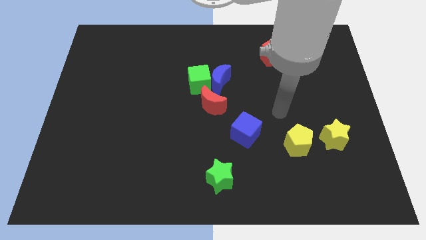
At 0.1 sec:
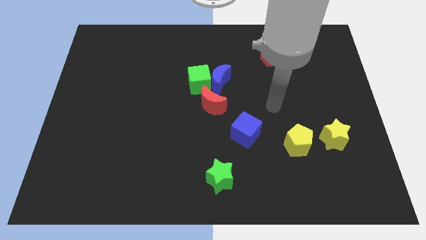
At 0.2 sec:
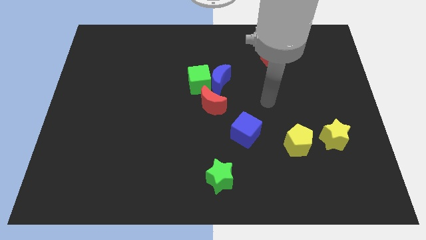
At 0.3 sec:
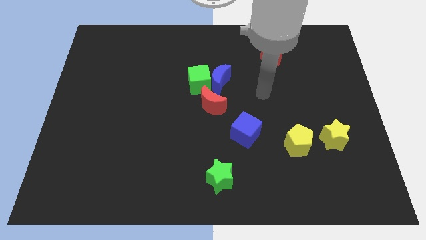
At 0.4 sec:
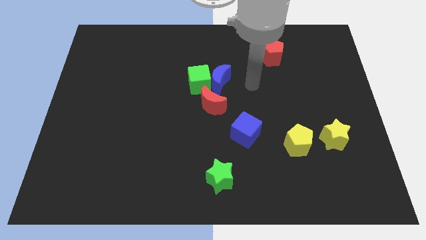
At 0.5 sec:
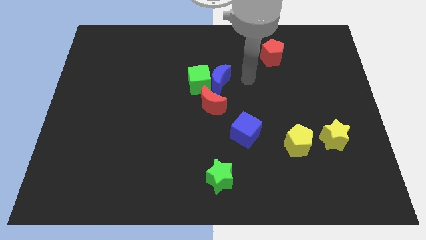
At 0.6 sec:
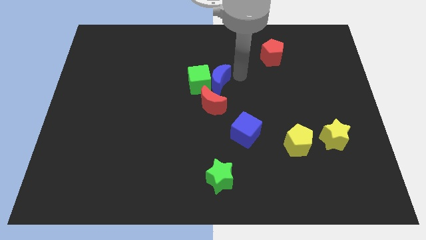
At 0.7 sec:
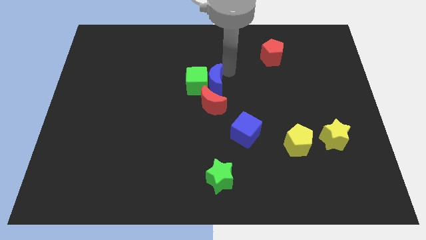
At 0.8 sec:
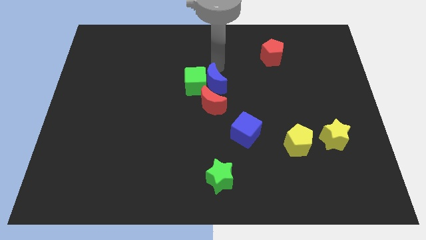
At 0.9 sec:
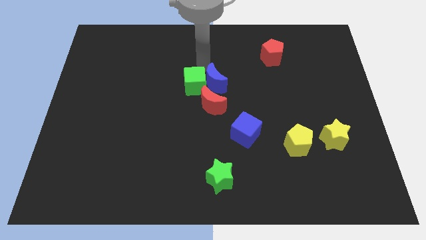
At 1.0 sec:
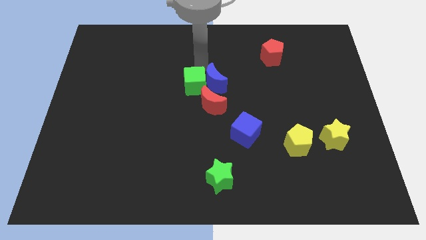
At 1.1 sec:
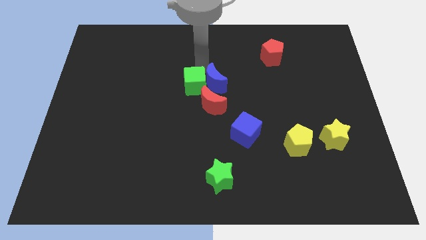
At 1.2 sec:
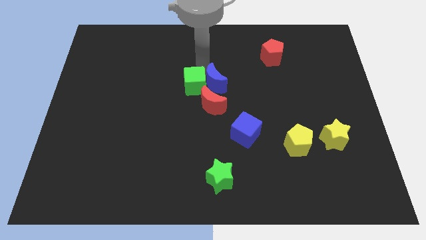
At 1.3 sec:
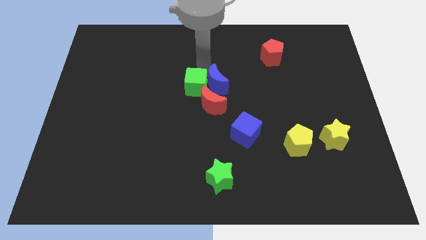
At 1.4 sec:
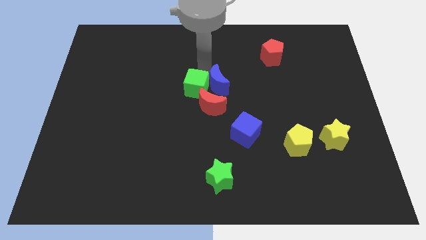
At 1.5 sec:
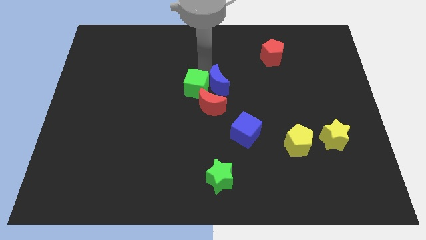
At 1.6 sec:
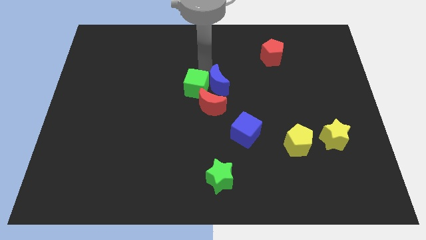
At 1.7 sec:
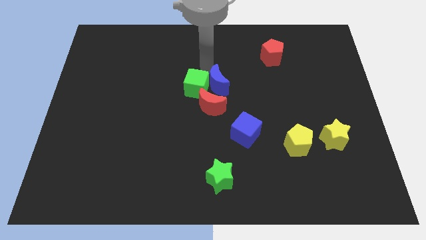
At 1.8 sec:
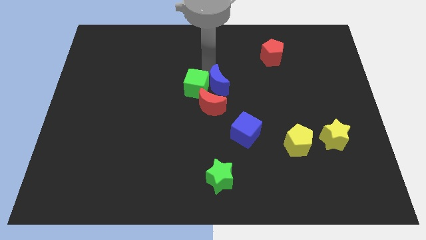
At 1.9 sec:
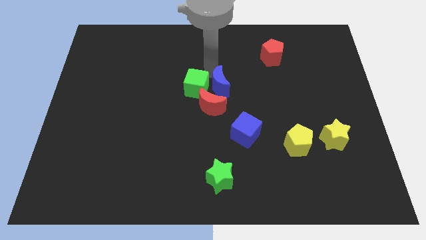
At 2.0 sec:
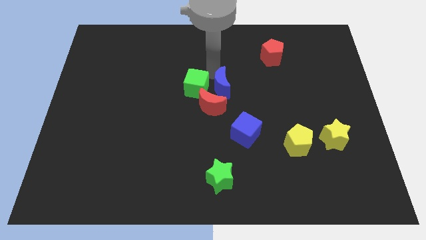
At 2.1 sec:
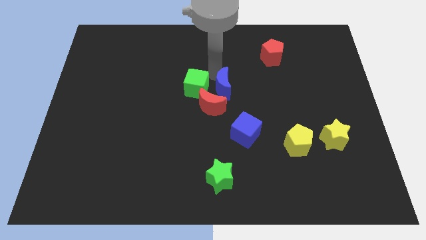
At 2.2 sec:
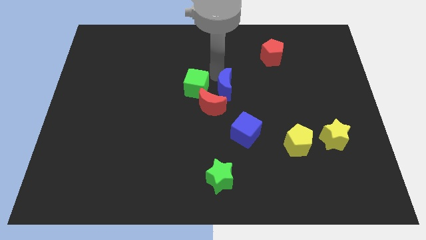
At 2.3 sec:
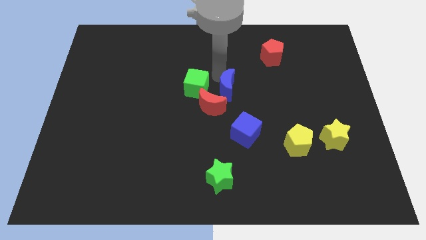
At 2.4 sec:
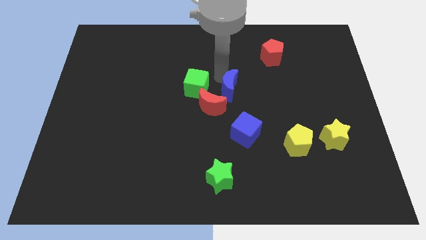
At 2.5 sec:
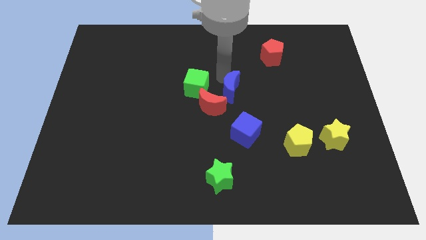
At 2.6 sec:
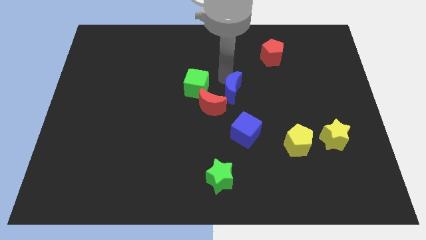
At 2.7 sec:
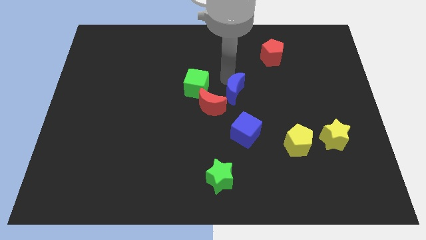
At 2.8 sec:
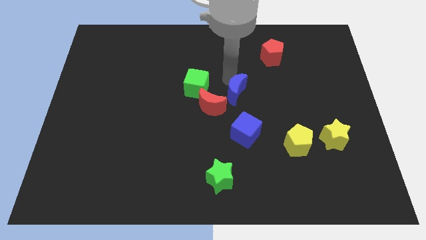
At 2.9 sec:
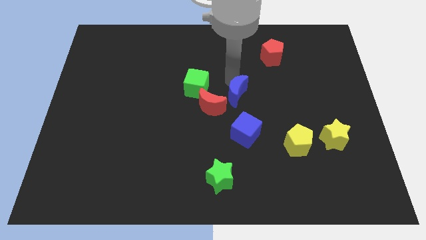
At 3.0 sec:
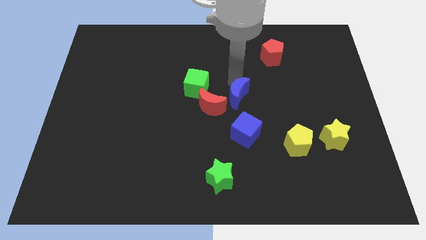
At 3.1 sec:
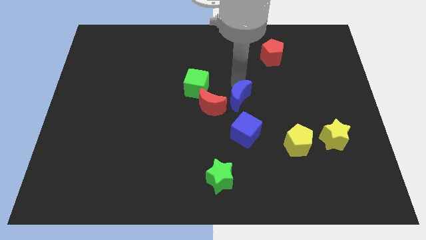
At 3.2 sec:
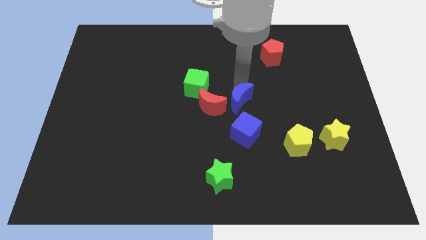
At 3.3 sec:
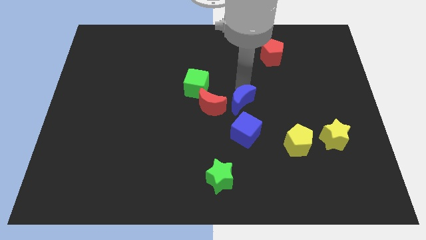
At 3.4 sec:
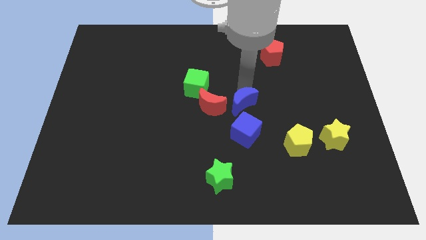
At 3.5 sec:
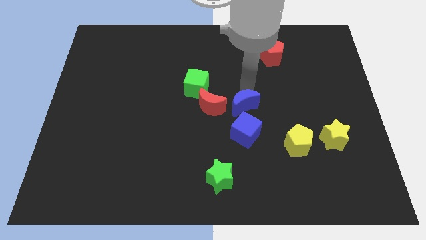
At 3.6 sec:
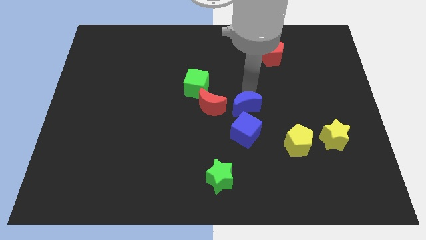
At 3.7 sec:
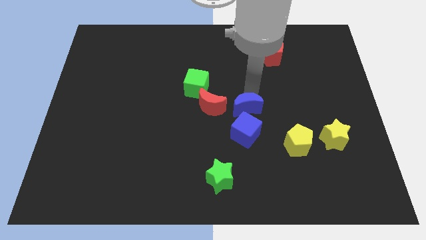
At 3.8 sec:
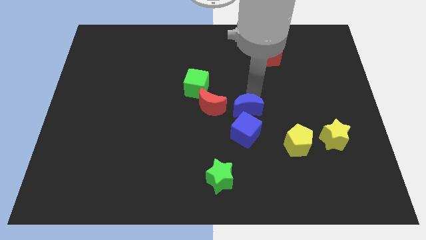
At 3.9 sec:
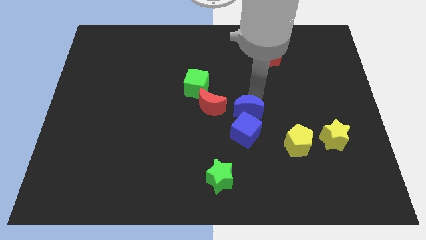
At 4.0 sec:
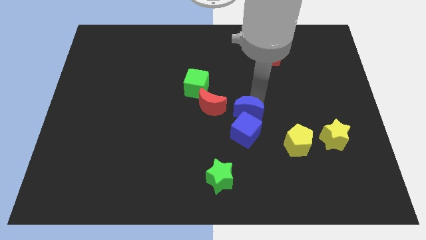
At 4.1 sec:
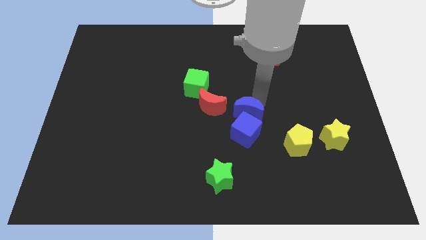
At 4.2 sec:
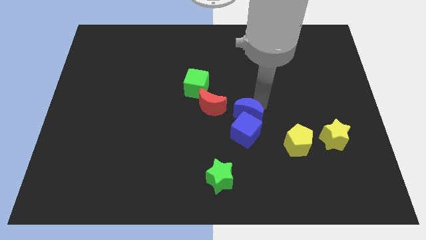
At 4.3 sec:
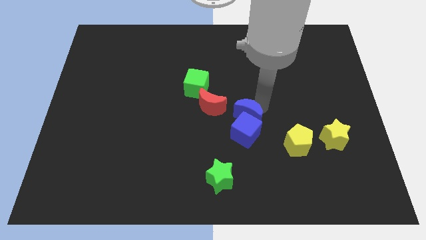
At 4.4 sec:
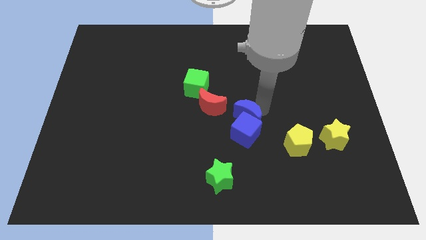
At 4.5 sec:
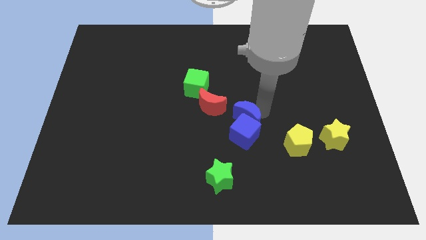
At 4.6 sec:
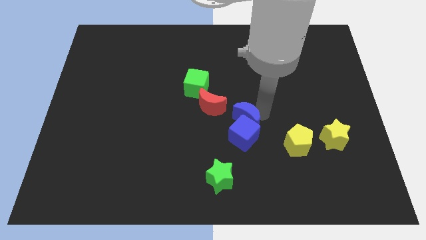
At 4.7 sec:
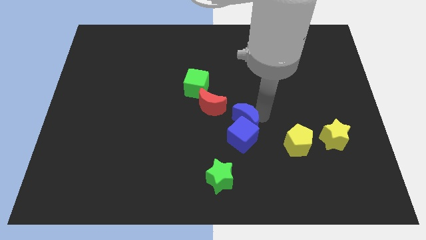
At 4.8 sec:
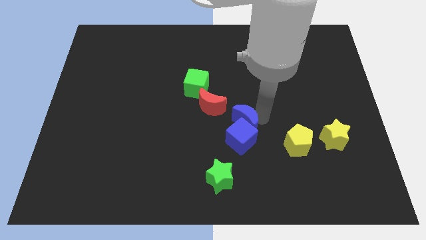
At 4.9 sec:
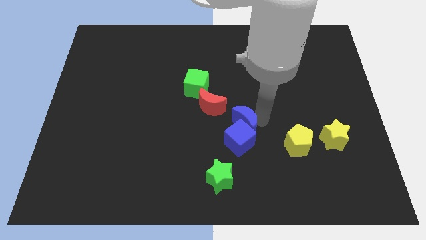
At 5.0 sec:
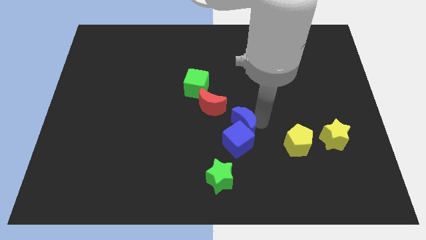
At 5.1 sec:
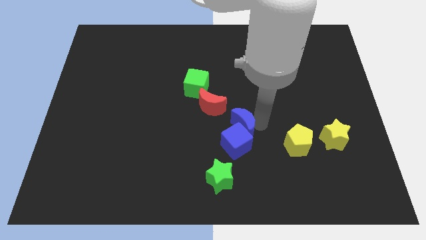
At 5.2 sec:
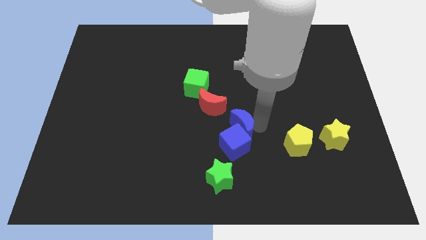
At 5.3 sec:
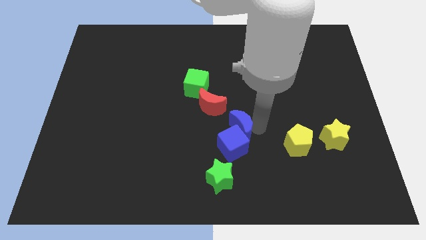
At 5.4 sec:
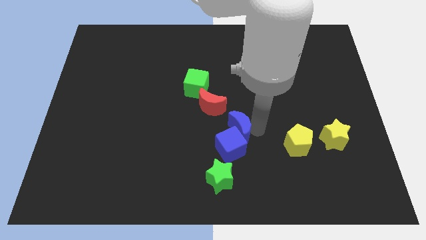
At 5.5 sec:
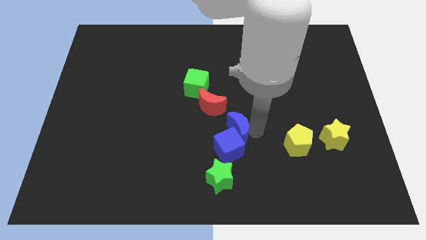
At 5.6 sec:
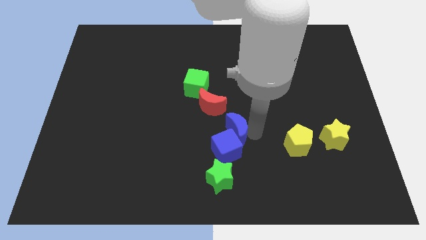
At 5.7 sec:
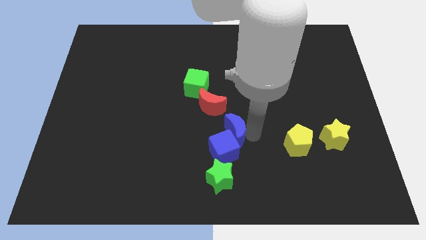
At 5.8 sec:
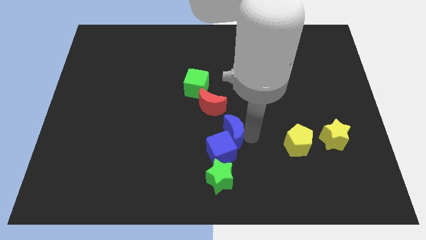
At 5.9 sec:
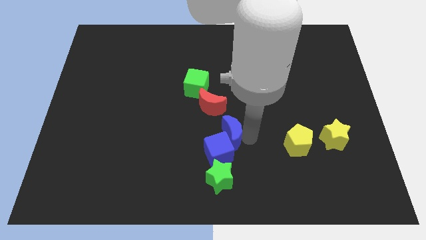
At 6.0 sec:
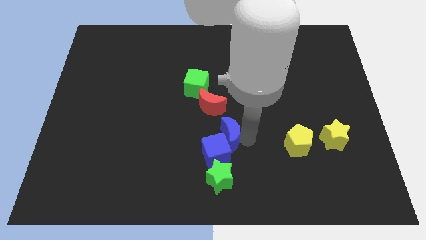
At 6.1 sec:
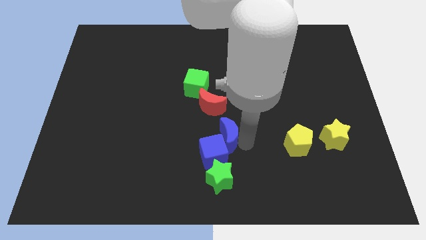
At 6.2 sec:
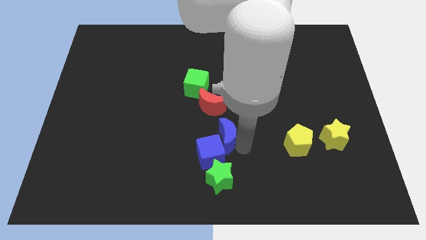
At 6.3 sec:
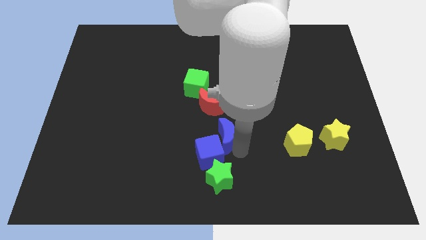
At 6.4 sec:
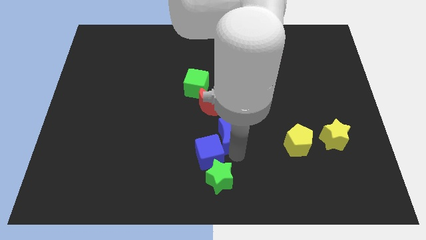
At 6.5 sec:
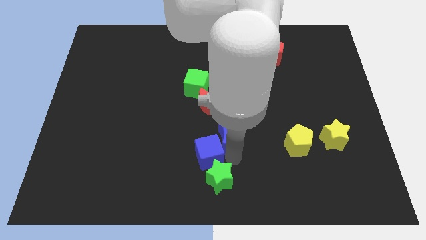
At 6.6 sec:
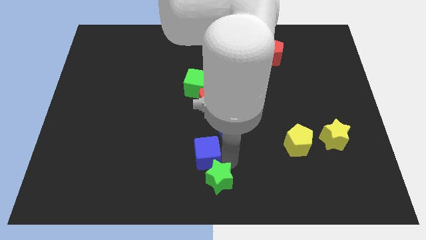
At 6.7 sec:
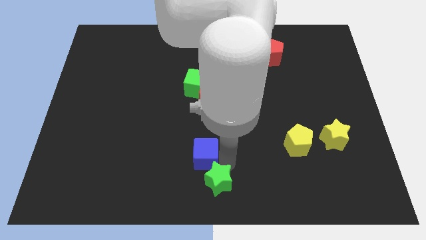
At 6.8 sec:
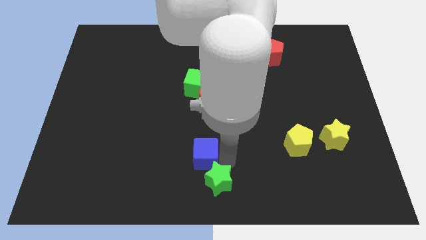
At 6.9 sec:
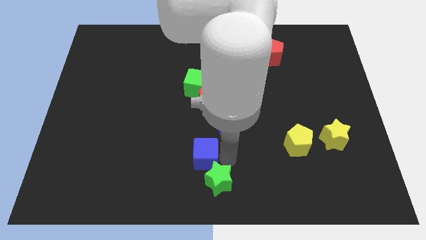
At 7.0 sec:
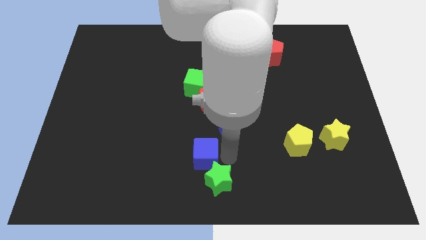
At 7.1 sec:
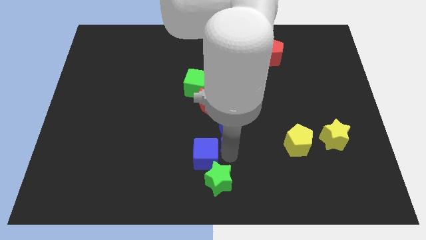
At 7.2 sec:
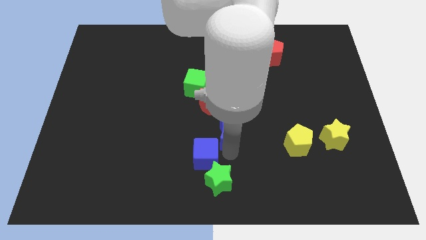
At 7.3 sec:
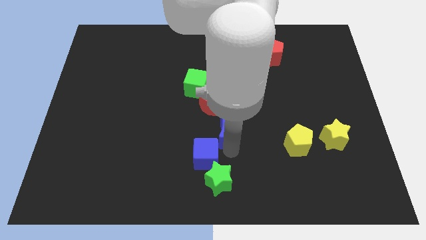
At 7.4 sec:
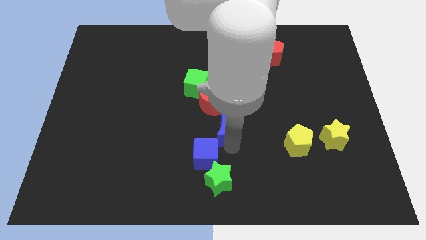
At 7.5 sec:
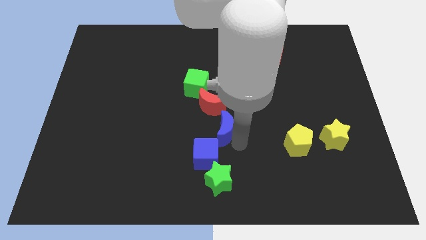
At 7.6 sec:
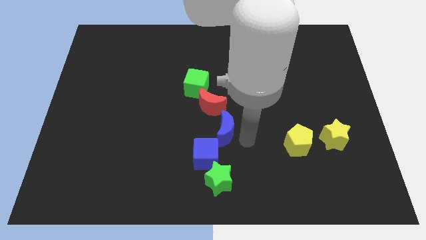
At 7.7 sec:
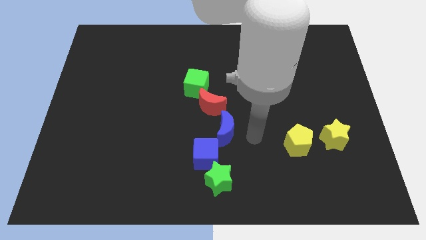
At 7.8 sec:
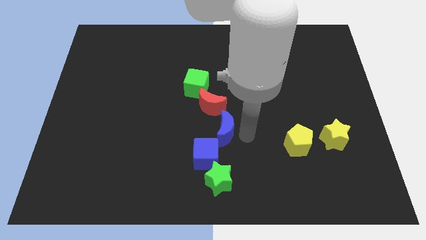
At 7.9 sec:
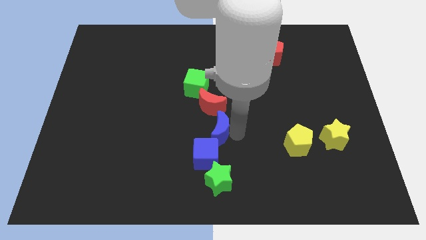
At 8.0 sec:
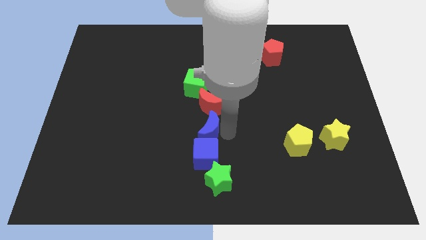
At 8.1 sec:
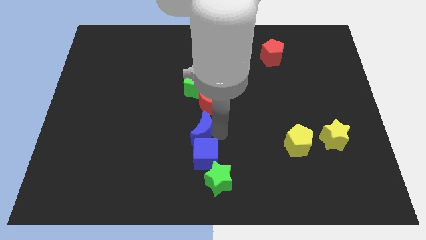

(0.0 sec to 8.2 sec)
put the blue moon diagonally down and to the left of the red moon
